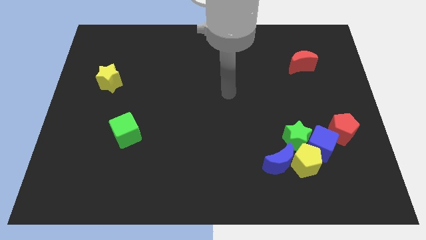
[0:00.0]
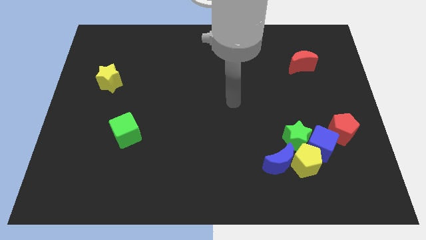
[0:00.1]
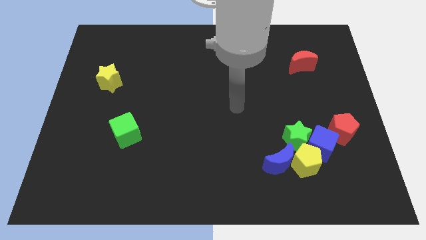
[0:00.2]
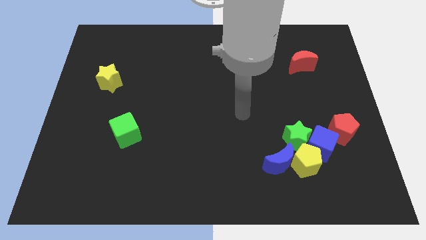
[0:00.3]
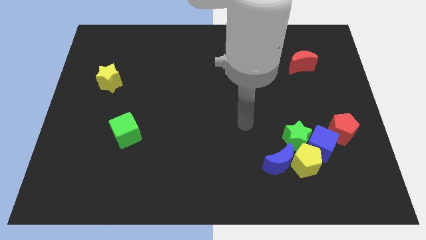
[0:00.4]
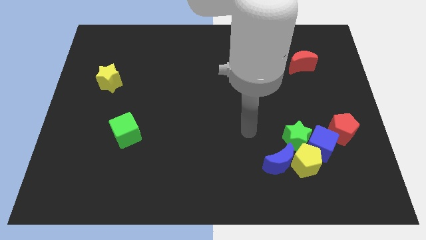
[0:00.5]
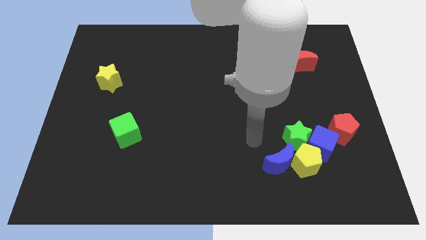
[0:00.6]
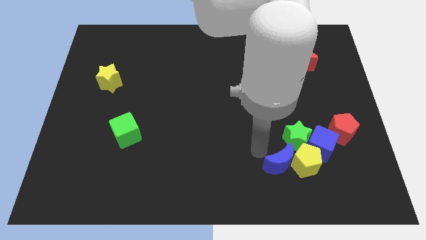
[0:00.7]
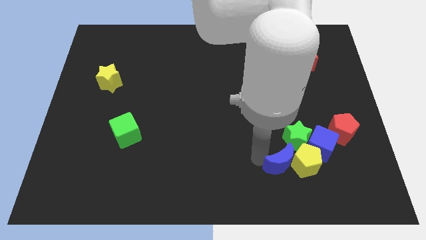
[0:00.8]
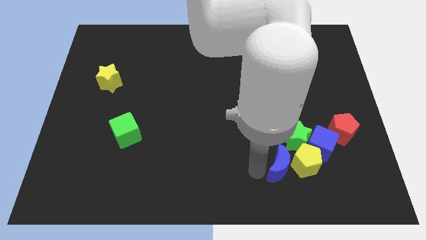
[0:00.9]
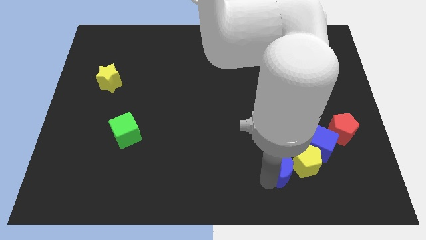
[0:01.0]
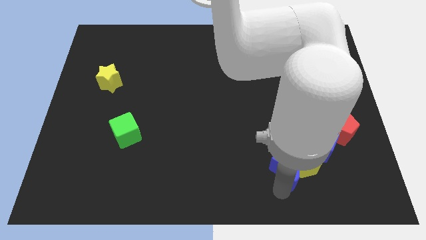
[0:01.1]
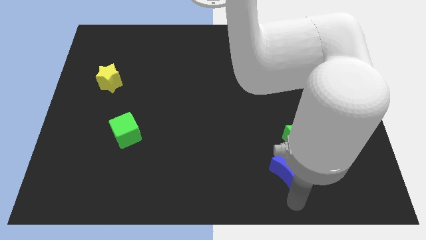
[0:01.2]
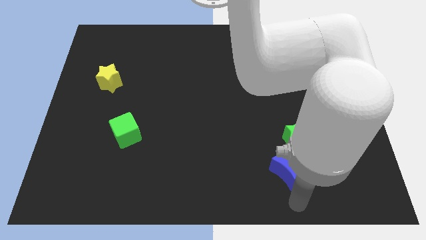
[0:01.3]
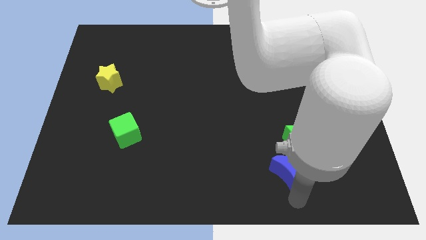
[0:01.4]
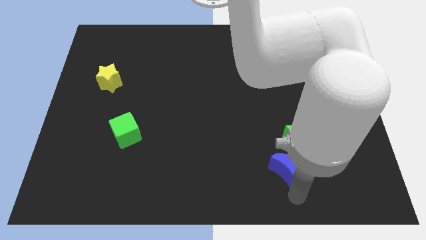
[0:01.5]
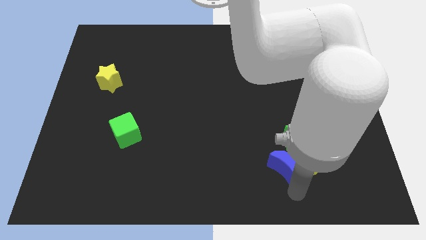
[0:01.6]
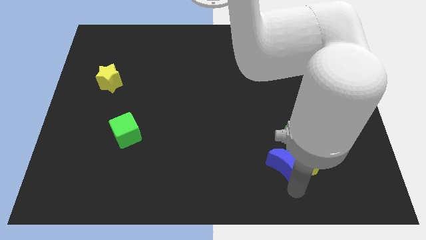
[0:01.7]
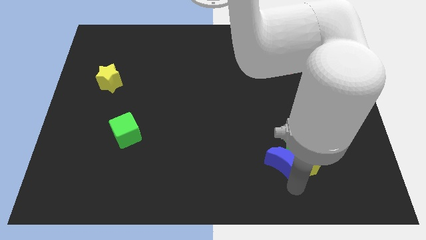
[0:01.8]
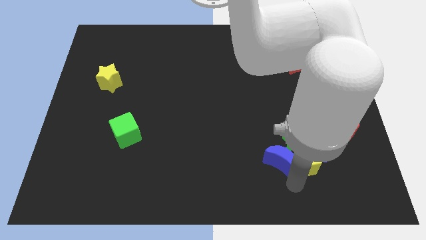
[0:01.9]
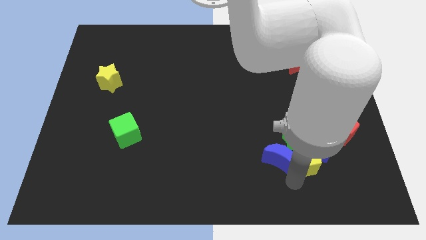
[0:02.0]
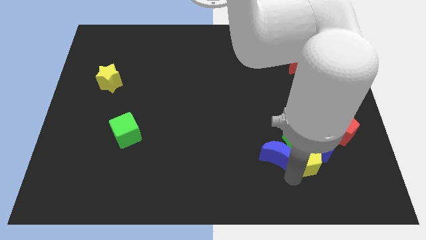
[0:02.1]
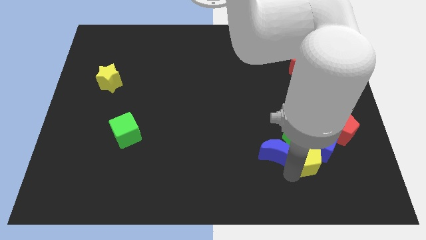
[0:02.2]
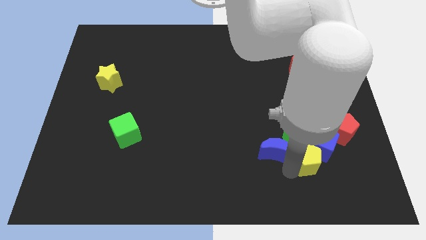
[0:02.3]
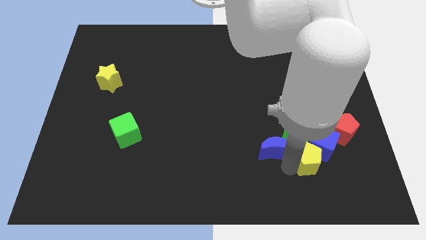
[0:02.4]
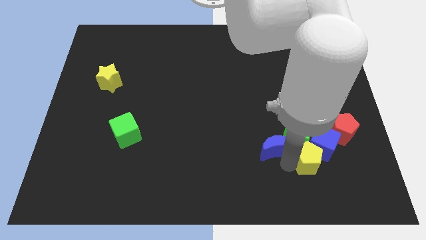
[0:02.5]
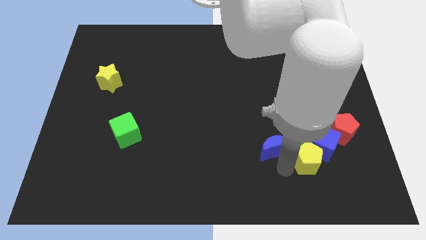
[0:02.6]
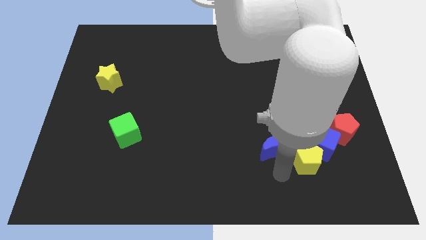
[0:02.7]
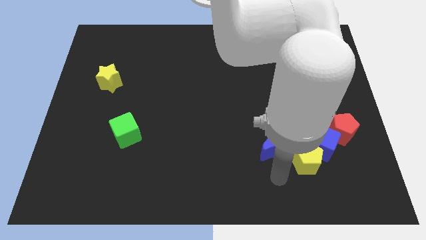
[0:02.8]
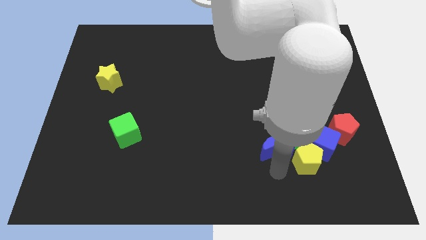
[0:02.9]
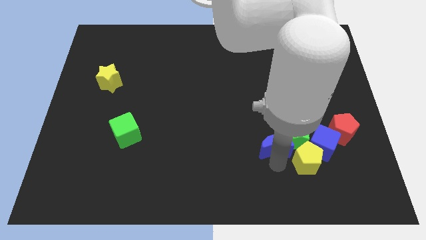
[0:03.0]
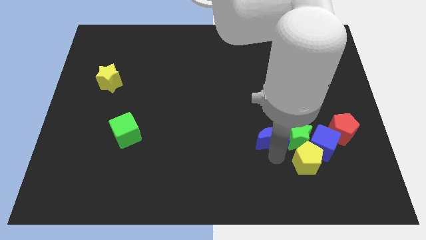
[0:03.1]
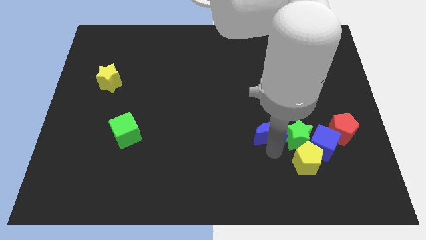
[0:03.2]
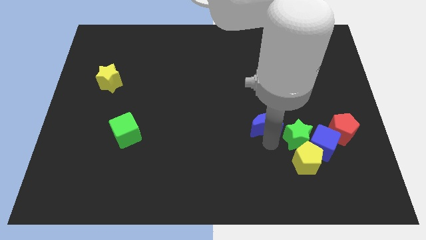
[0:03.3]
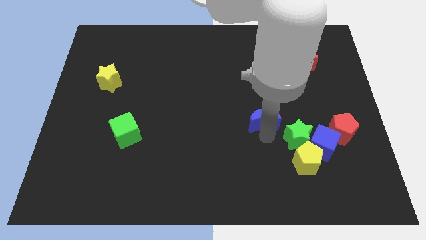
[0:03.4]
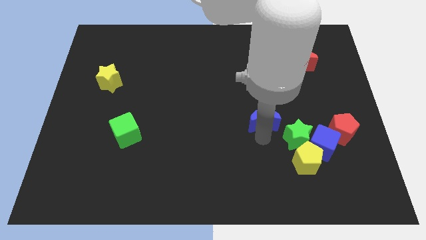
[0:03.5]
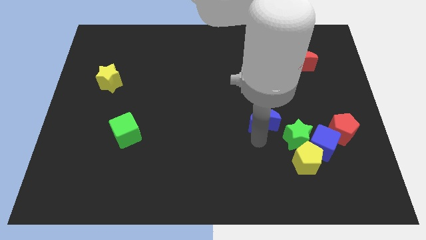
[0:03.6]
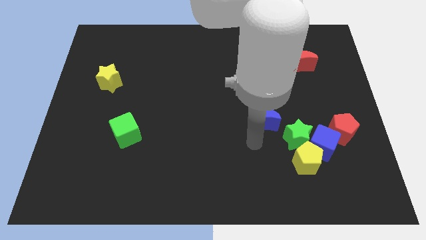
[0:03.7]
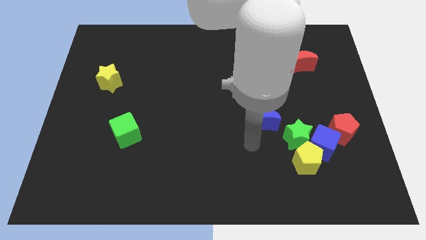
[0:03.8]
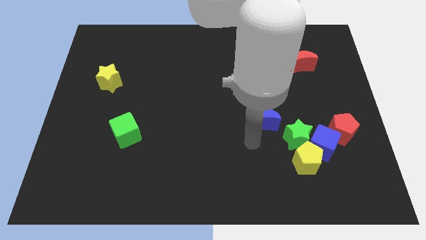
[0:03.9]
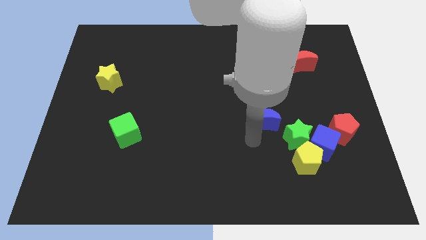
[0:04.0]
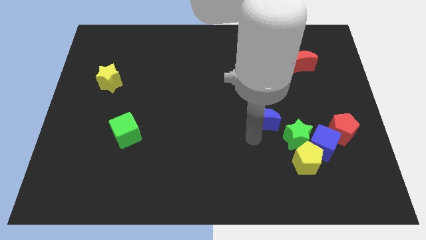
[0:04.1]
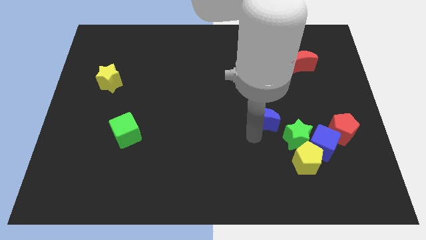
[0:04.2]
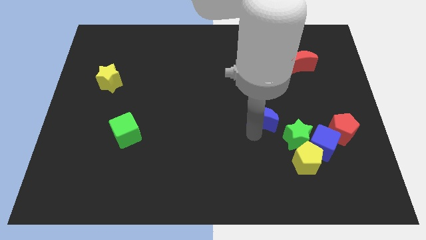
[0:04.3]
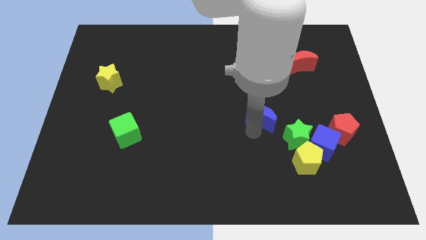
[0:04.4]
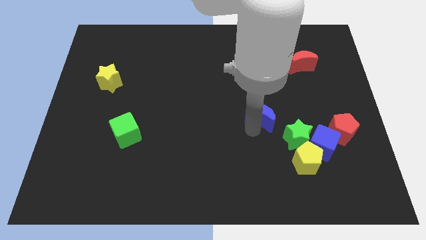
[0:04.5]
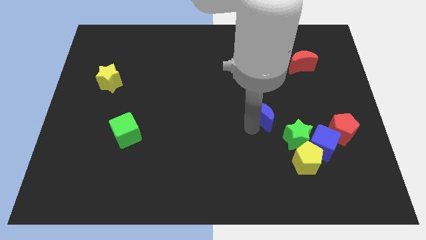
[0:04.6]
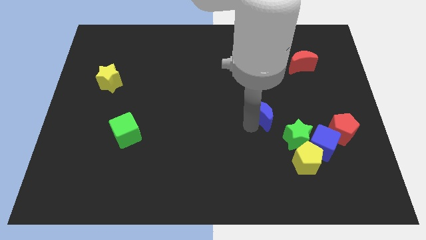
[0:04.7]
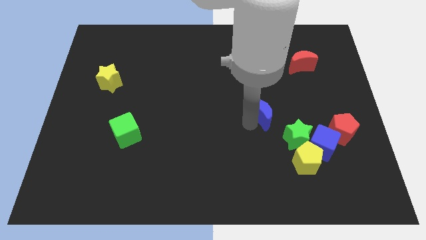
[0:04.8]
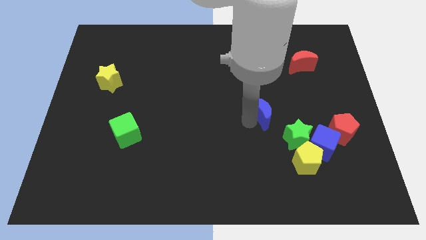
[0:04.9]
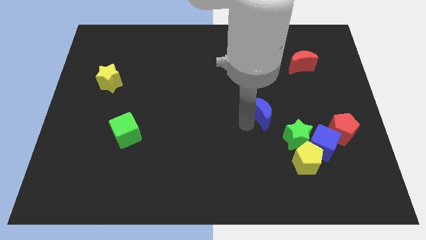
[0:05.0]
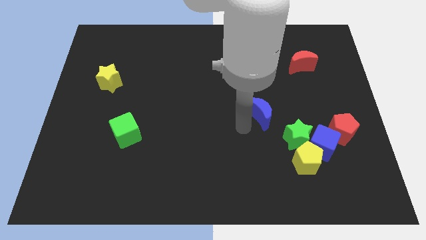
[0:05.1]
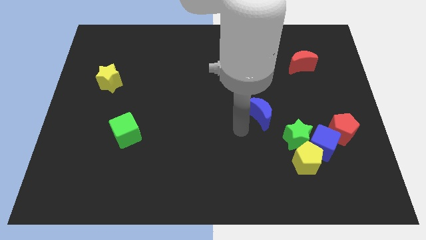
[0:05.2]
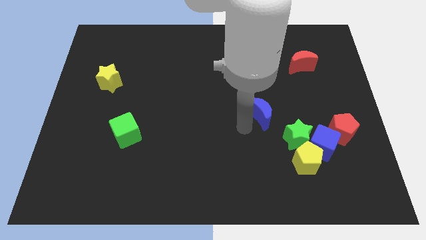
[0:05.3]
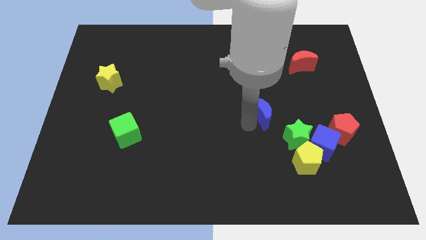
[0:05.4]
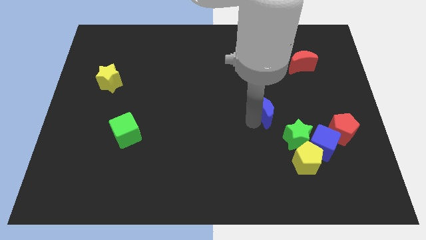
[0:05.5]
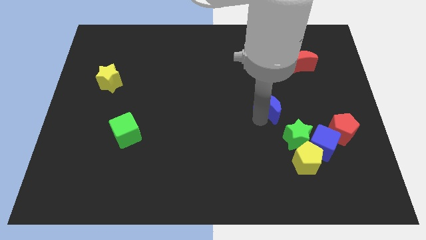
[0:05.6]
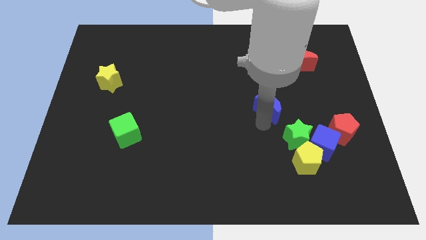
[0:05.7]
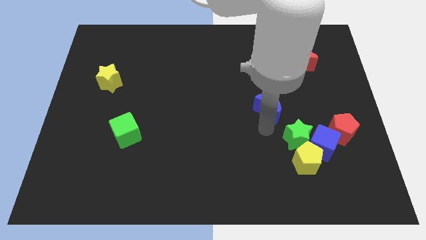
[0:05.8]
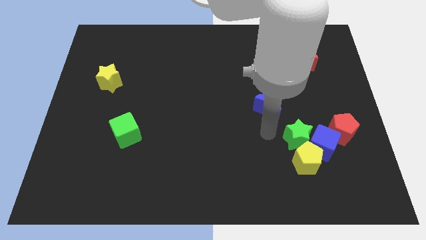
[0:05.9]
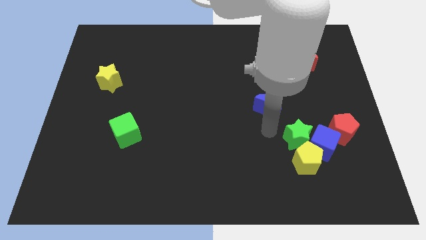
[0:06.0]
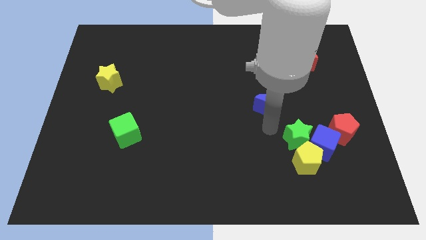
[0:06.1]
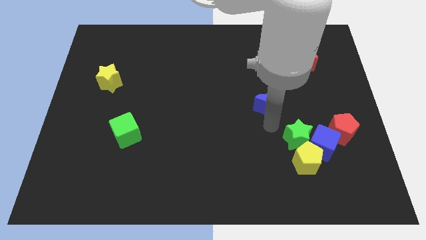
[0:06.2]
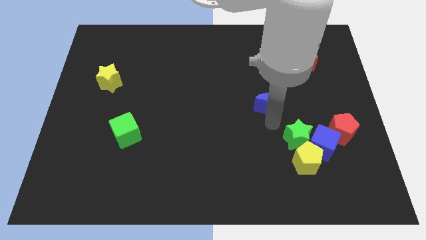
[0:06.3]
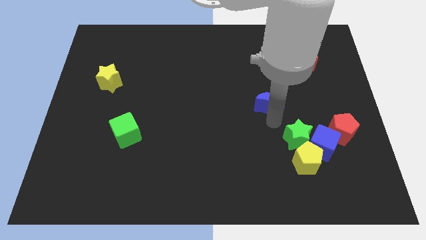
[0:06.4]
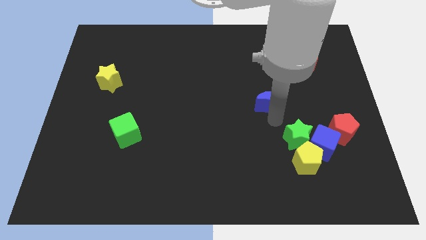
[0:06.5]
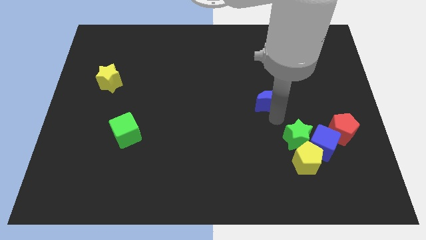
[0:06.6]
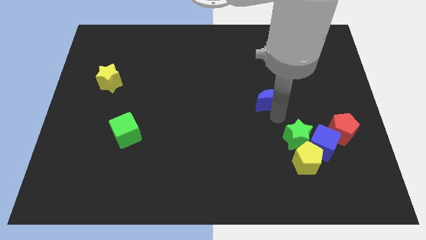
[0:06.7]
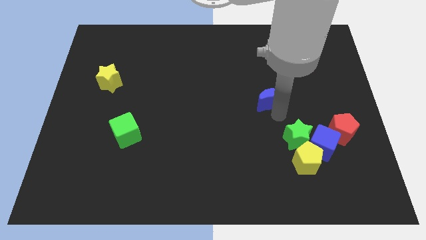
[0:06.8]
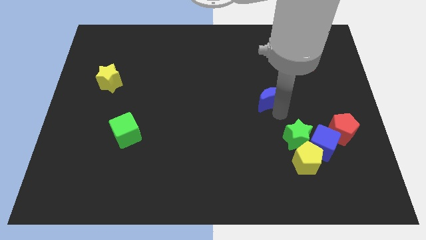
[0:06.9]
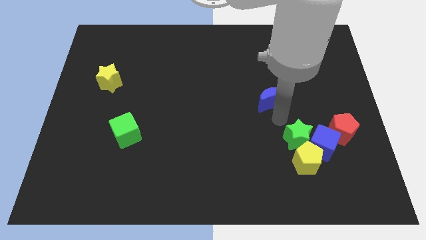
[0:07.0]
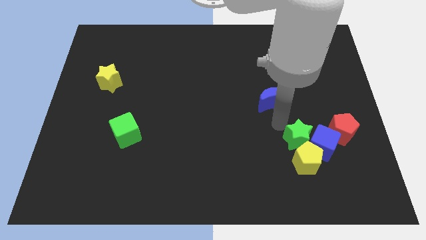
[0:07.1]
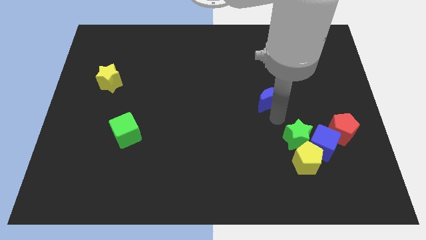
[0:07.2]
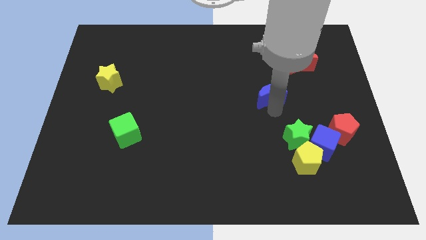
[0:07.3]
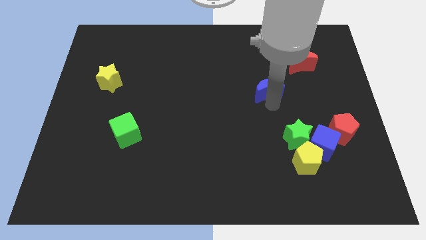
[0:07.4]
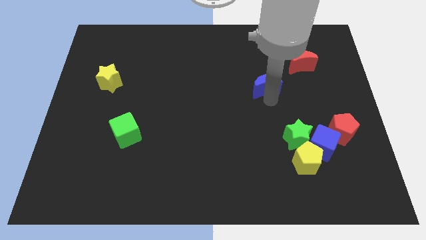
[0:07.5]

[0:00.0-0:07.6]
move the blue moon upwards

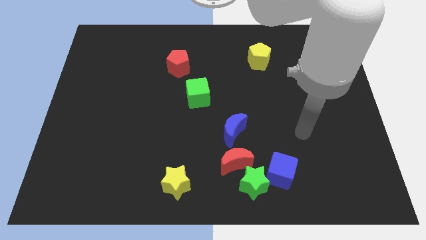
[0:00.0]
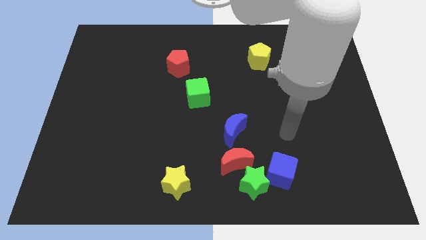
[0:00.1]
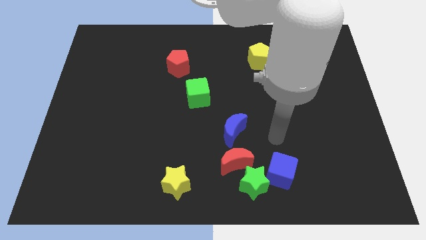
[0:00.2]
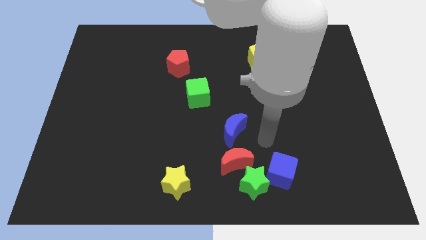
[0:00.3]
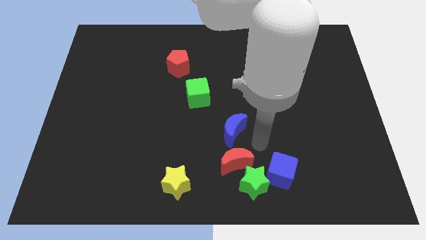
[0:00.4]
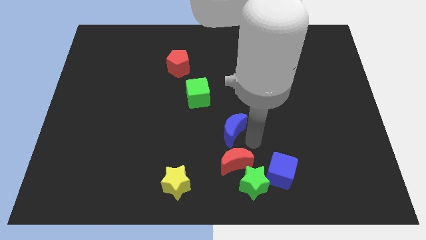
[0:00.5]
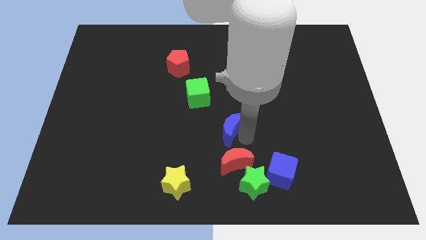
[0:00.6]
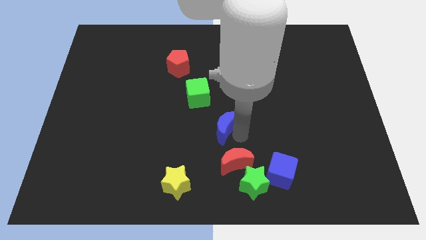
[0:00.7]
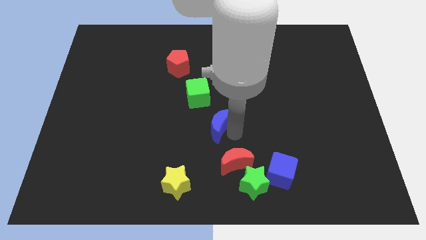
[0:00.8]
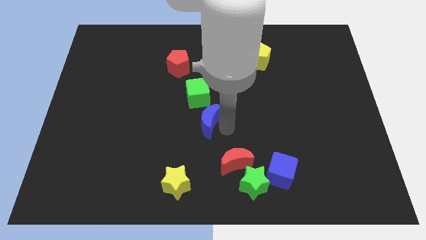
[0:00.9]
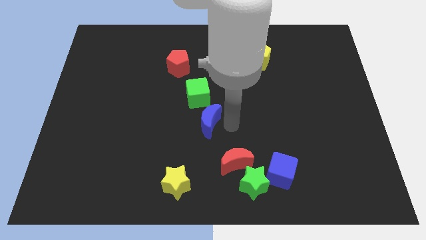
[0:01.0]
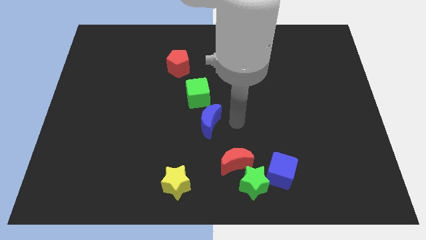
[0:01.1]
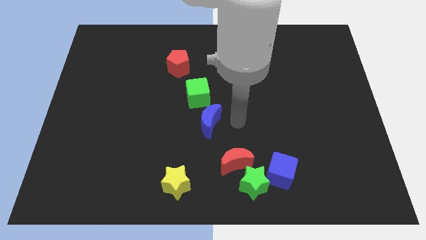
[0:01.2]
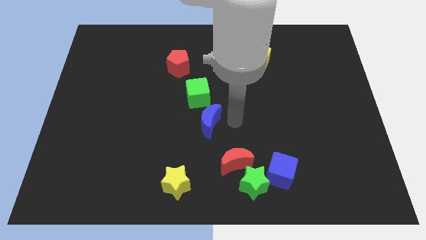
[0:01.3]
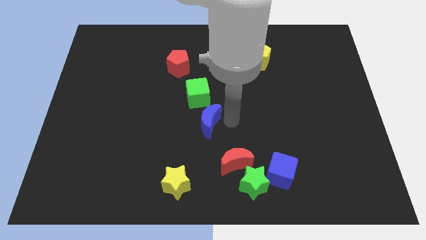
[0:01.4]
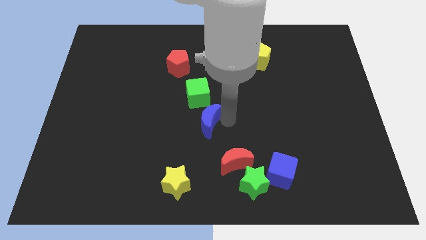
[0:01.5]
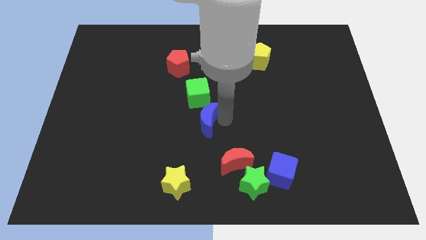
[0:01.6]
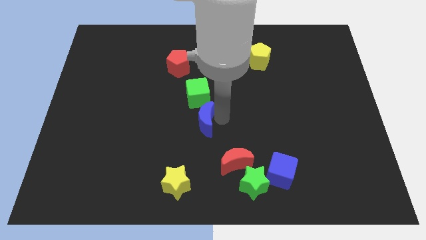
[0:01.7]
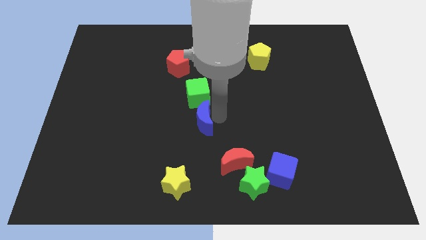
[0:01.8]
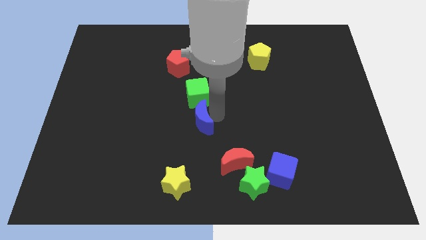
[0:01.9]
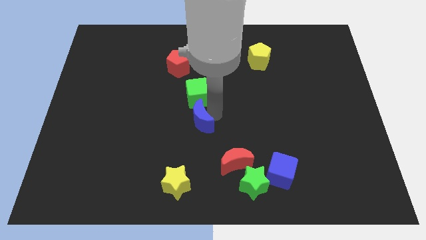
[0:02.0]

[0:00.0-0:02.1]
slightly slide the blue moon to the left
